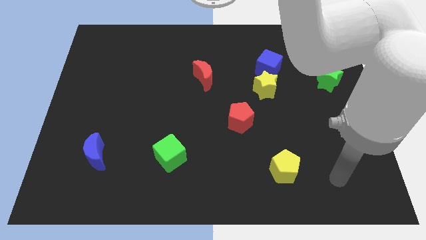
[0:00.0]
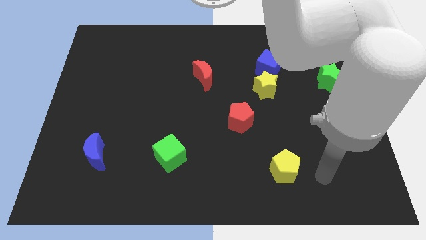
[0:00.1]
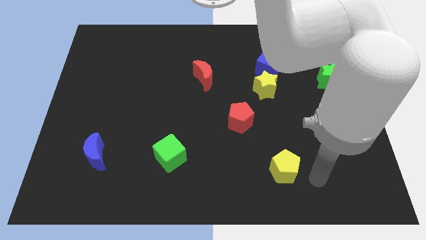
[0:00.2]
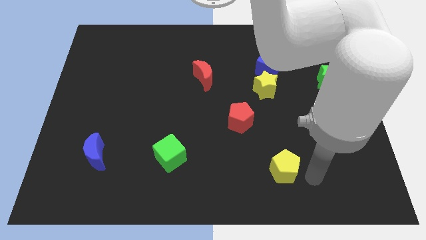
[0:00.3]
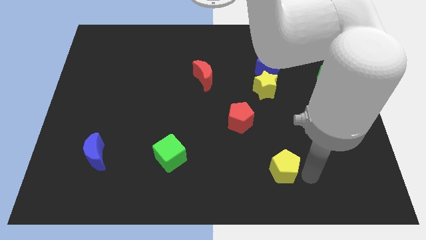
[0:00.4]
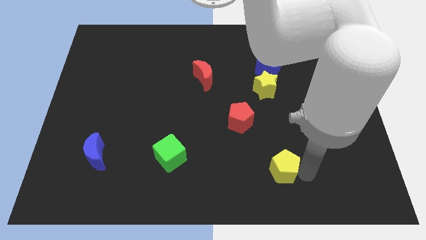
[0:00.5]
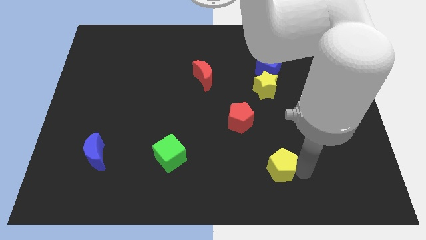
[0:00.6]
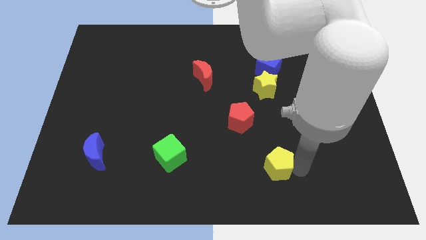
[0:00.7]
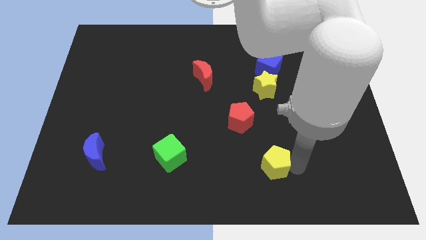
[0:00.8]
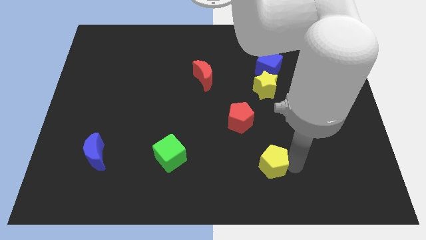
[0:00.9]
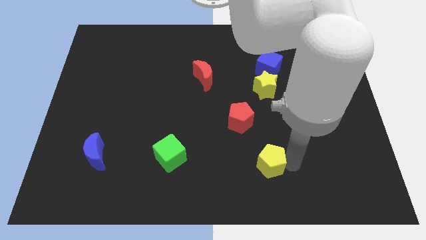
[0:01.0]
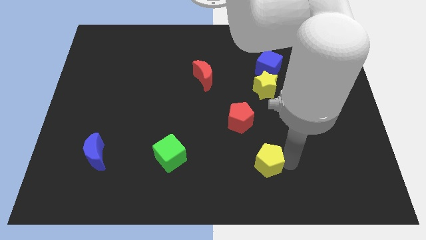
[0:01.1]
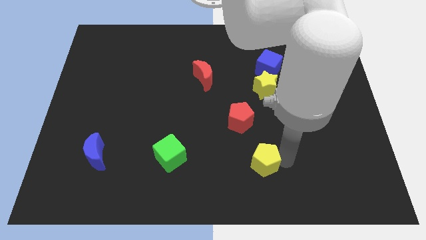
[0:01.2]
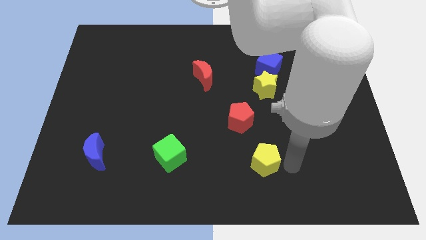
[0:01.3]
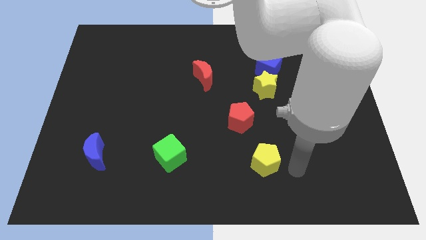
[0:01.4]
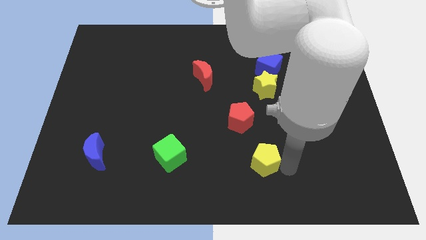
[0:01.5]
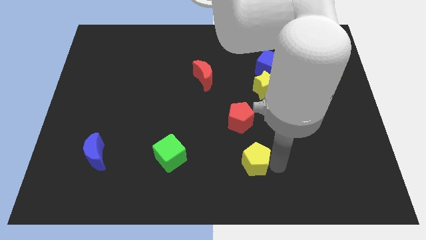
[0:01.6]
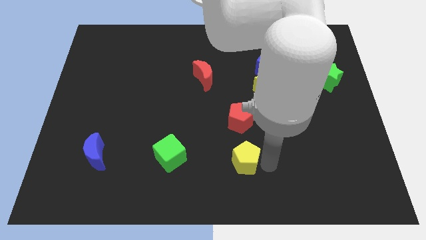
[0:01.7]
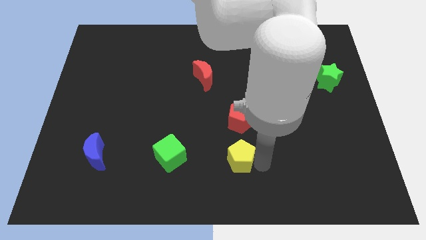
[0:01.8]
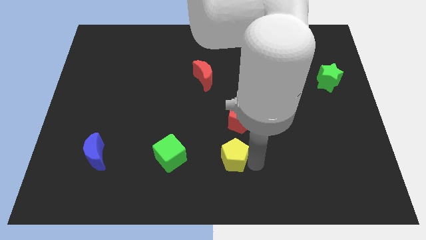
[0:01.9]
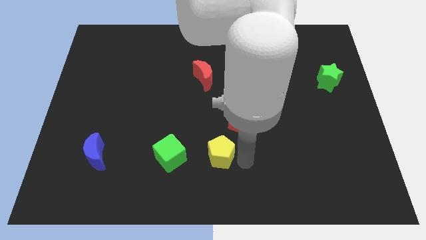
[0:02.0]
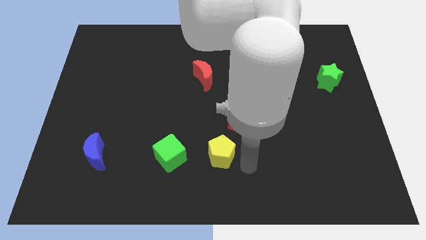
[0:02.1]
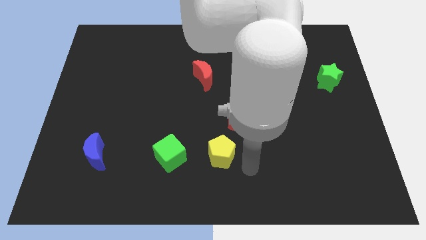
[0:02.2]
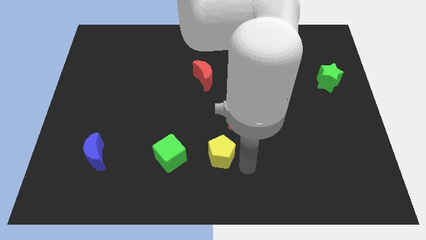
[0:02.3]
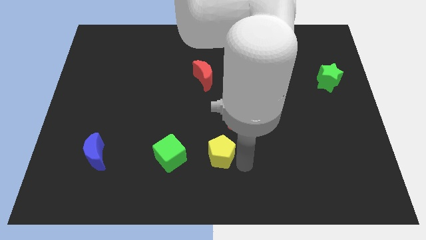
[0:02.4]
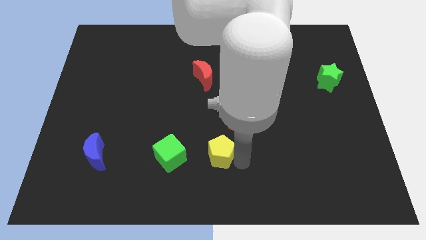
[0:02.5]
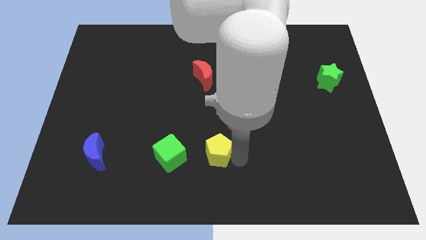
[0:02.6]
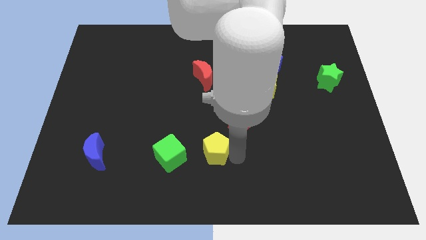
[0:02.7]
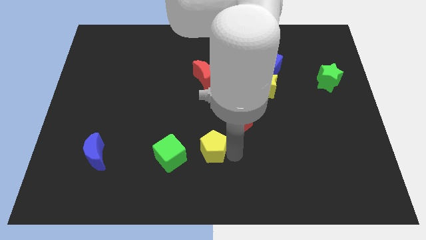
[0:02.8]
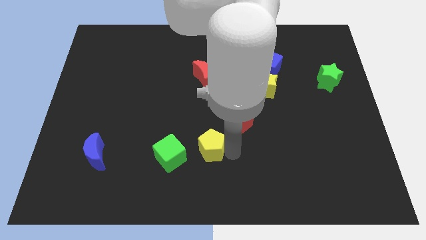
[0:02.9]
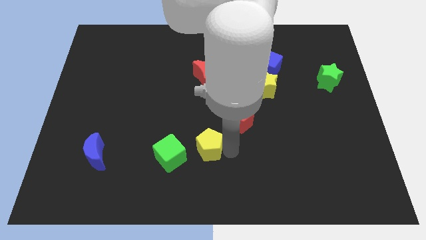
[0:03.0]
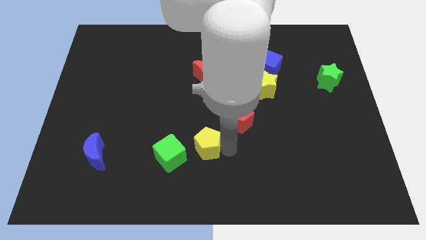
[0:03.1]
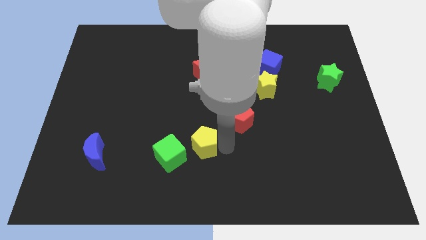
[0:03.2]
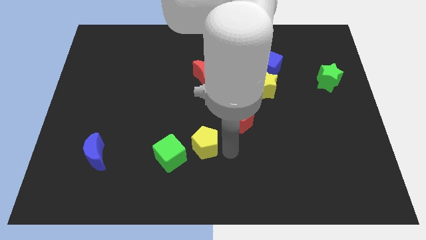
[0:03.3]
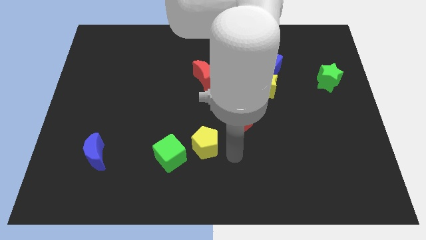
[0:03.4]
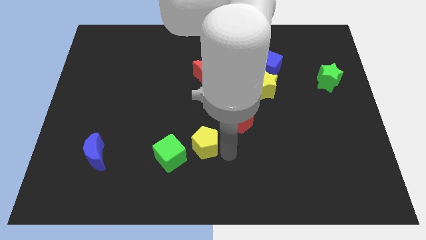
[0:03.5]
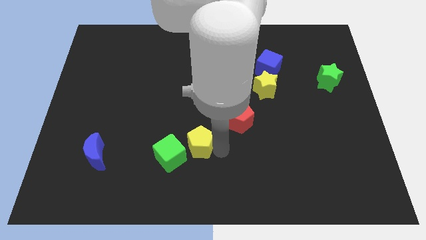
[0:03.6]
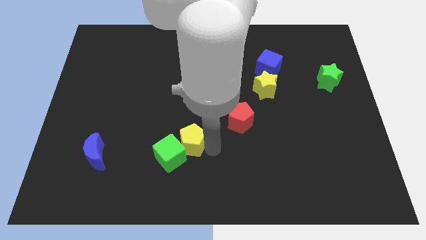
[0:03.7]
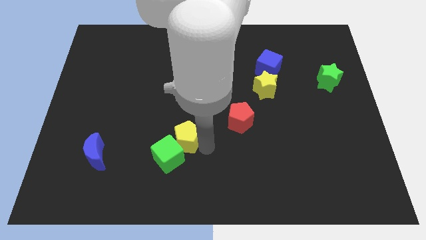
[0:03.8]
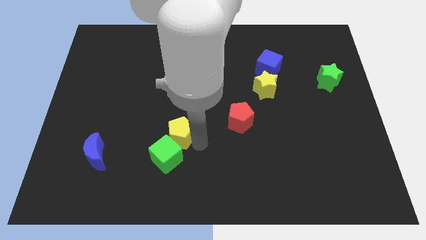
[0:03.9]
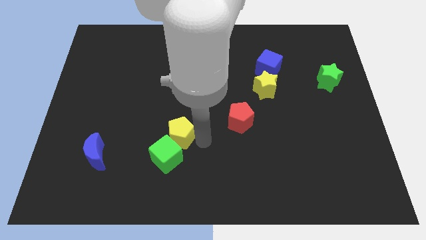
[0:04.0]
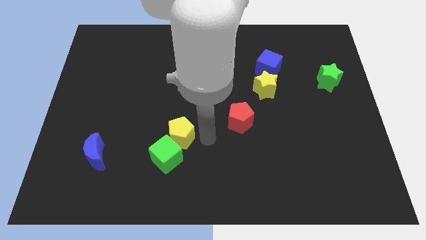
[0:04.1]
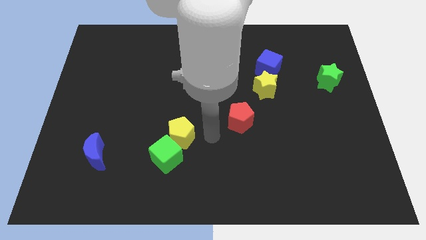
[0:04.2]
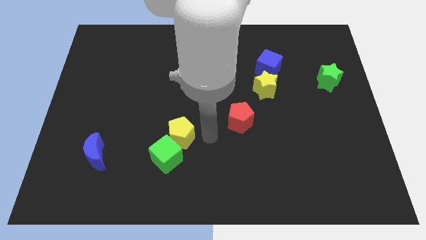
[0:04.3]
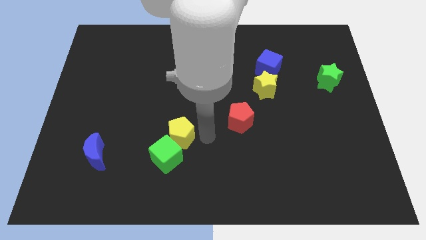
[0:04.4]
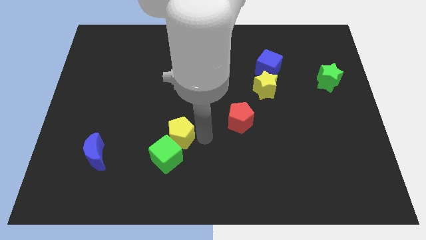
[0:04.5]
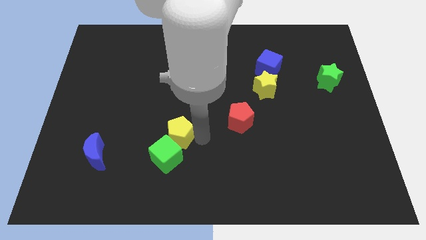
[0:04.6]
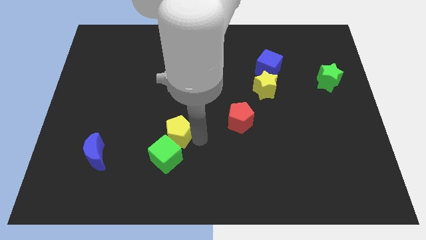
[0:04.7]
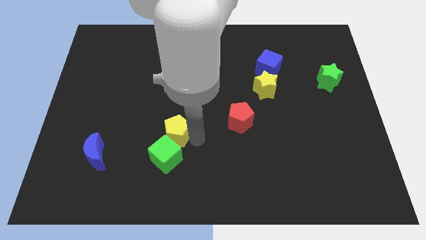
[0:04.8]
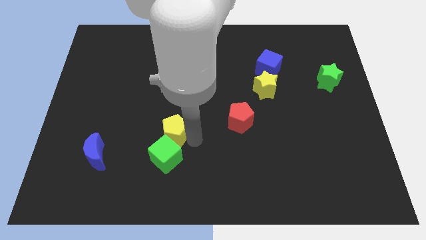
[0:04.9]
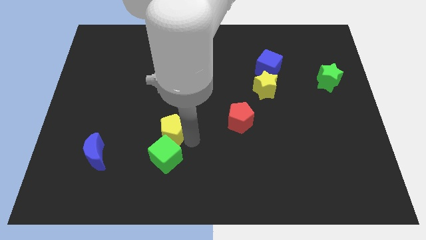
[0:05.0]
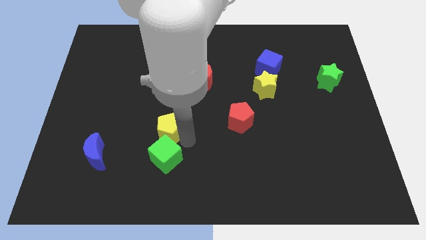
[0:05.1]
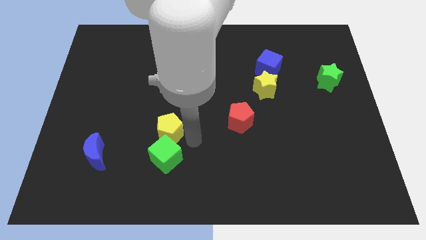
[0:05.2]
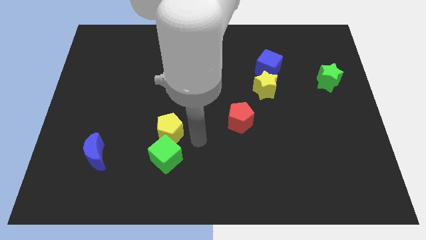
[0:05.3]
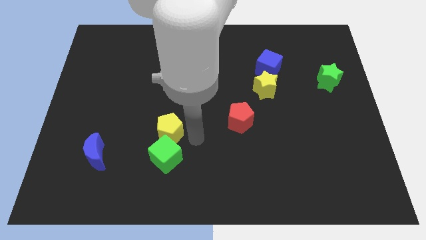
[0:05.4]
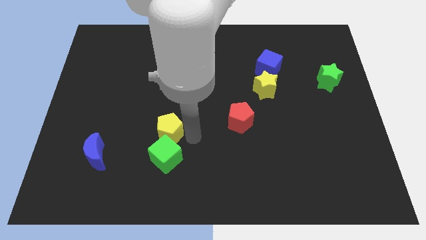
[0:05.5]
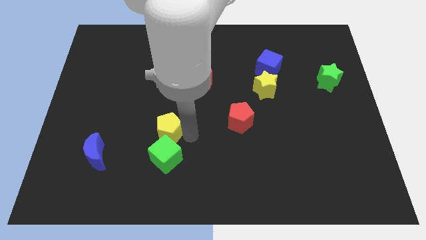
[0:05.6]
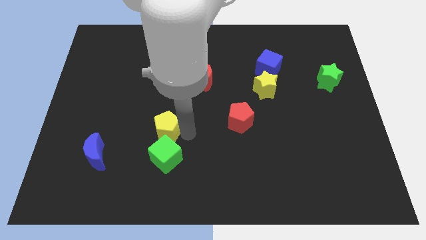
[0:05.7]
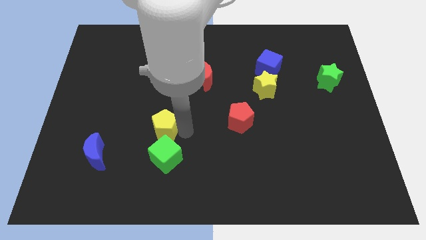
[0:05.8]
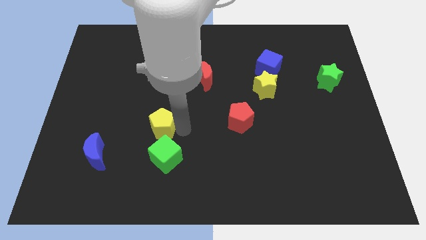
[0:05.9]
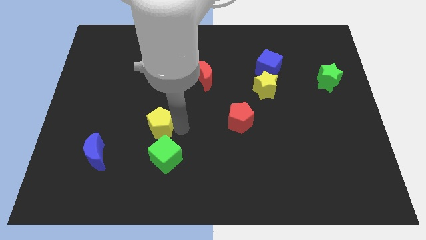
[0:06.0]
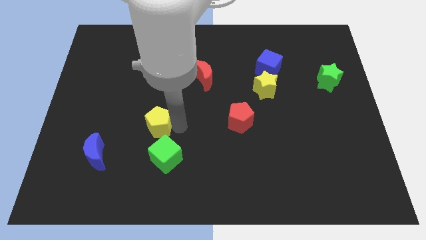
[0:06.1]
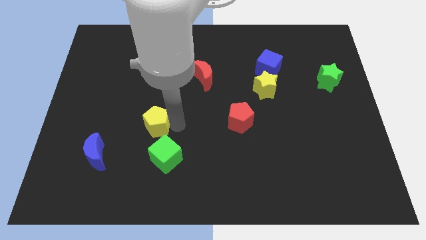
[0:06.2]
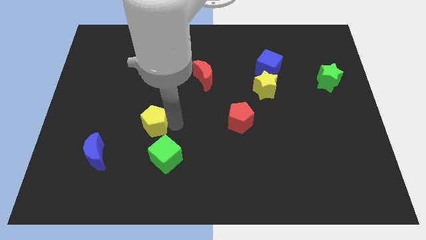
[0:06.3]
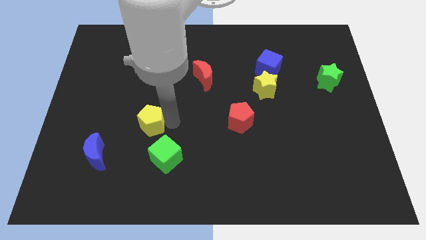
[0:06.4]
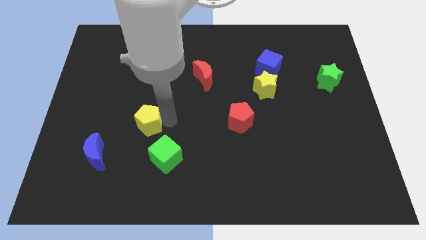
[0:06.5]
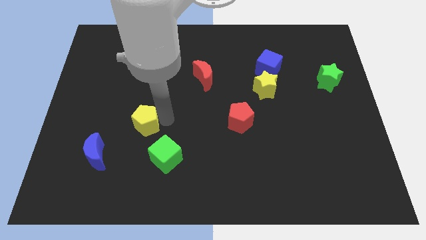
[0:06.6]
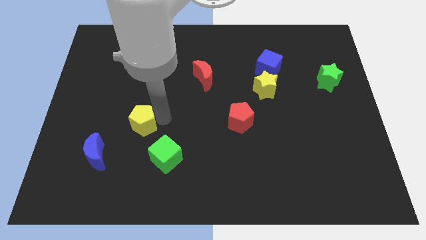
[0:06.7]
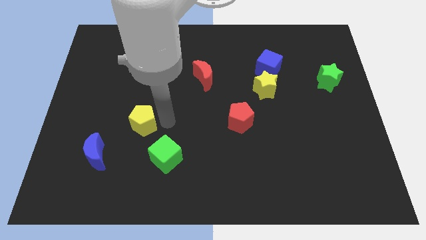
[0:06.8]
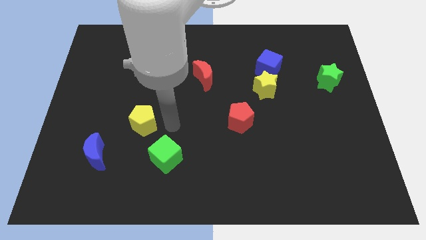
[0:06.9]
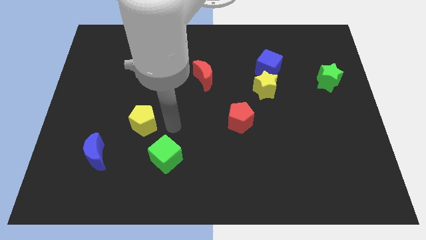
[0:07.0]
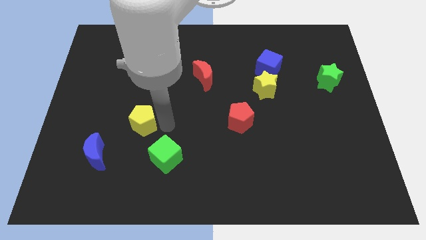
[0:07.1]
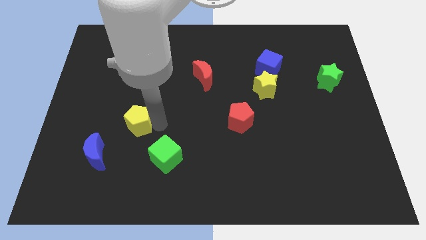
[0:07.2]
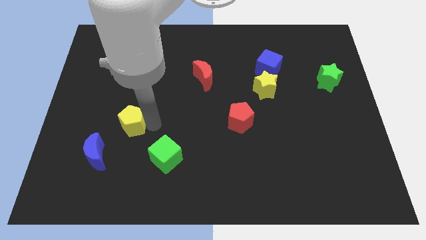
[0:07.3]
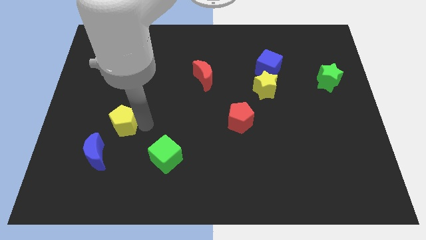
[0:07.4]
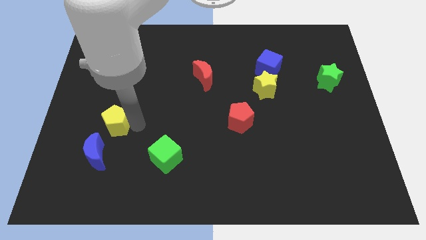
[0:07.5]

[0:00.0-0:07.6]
slide the yellow pentagon to the top side of the blue moon
